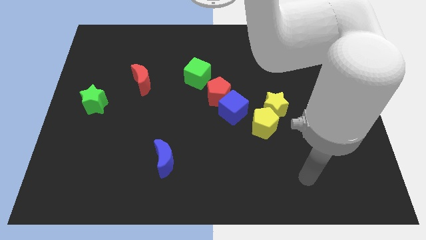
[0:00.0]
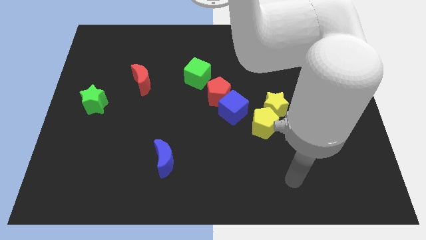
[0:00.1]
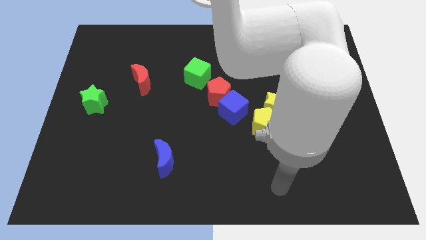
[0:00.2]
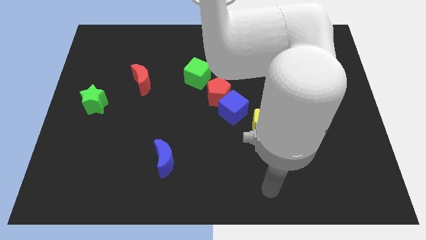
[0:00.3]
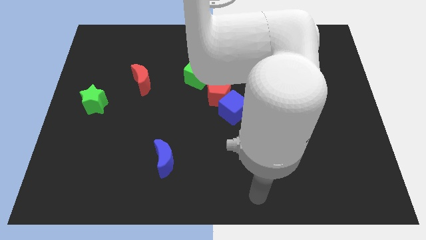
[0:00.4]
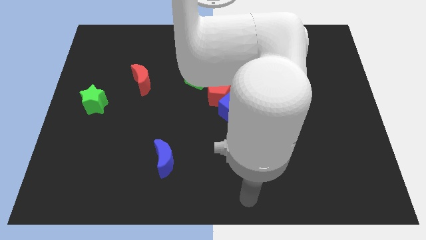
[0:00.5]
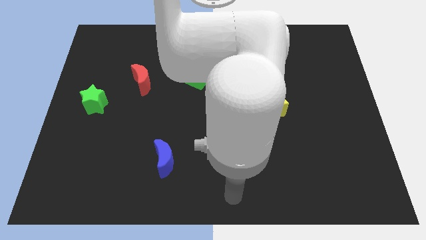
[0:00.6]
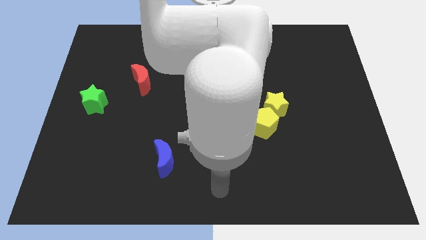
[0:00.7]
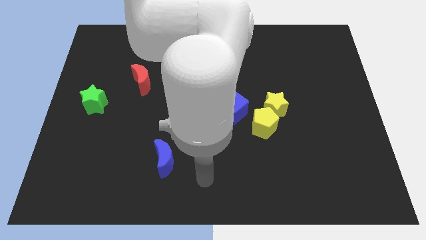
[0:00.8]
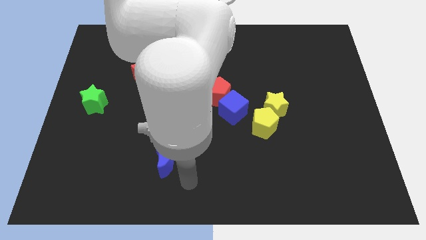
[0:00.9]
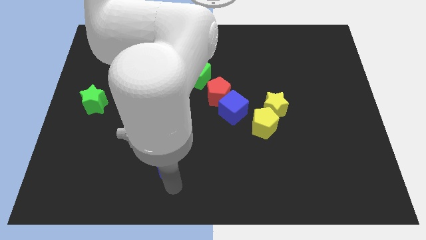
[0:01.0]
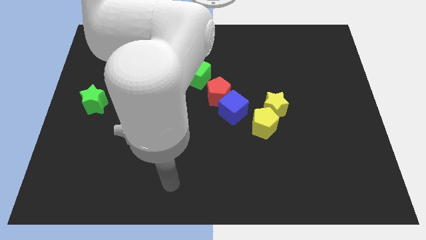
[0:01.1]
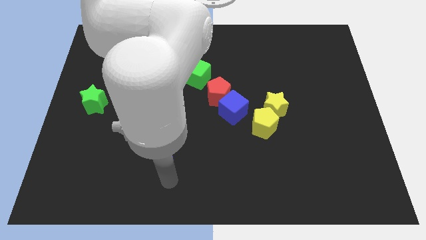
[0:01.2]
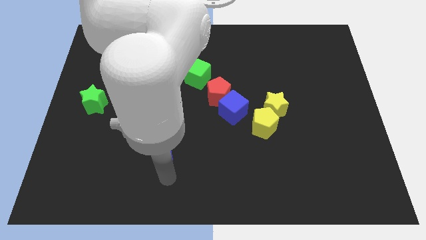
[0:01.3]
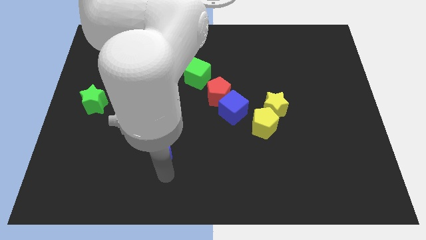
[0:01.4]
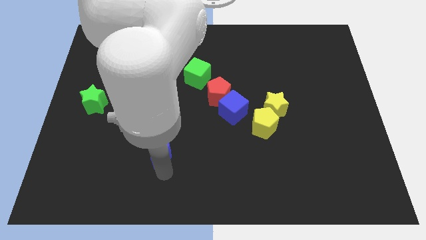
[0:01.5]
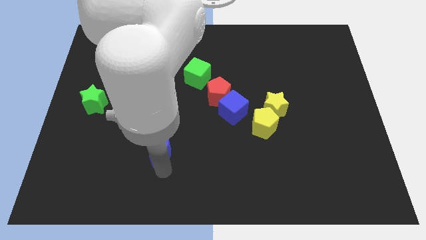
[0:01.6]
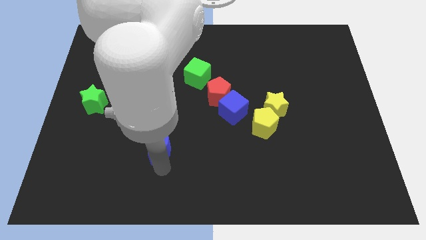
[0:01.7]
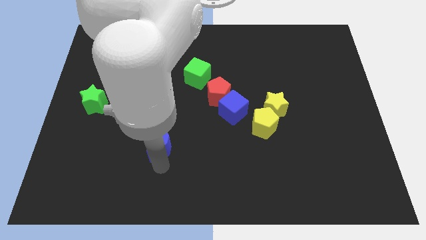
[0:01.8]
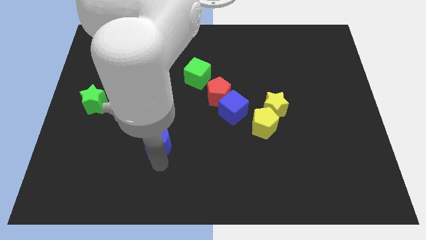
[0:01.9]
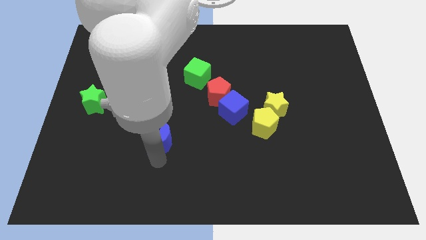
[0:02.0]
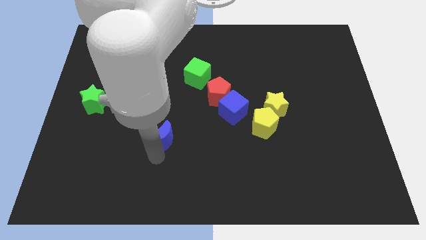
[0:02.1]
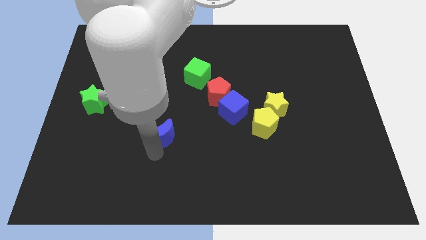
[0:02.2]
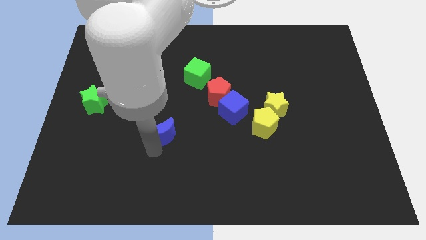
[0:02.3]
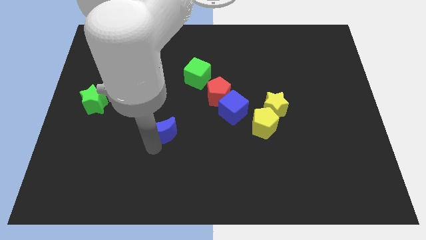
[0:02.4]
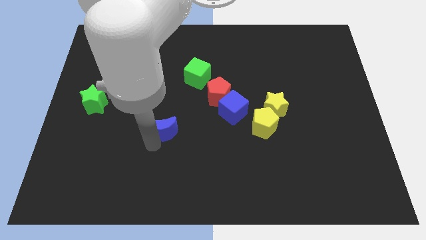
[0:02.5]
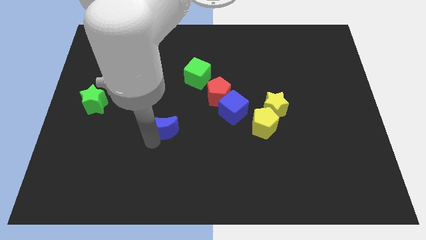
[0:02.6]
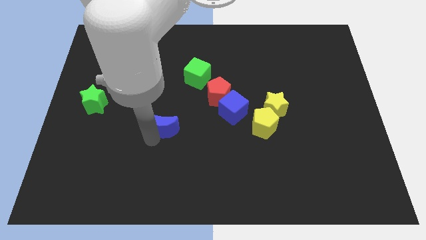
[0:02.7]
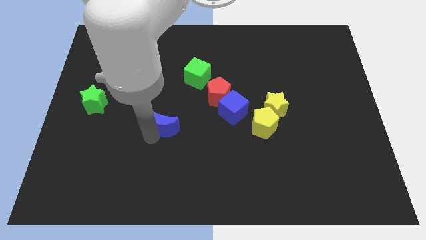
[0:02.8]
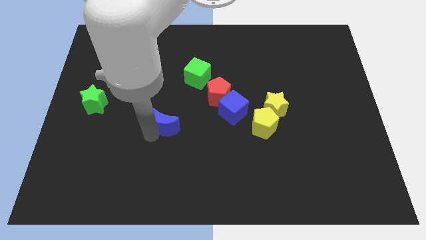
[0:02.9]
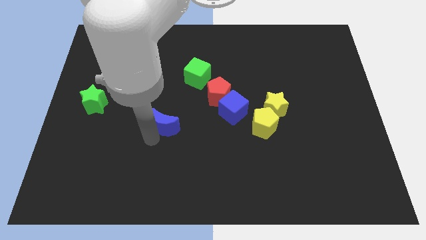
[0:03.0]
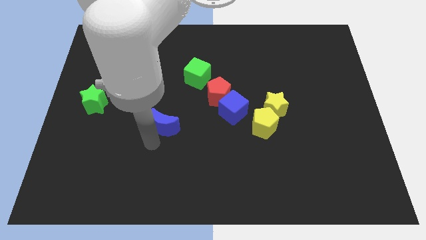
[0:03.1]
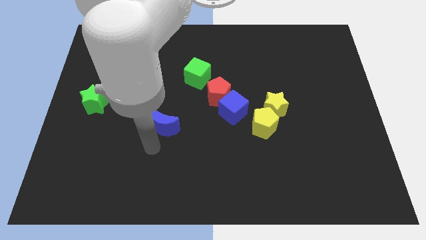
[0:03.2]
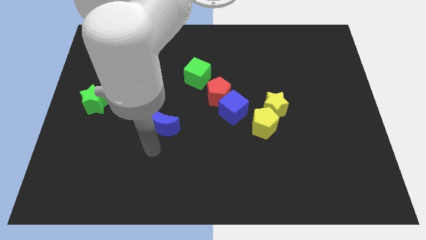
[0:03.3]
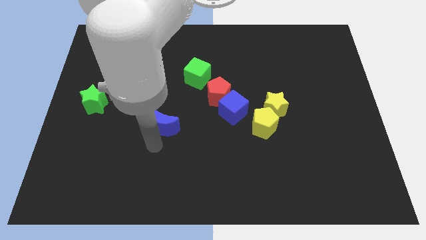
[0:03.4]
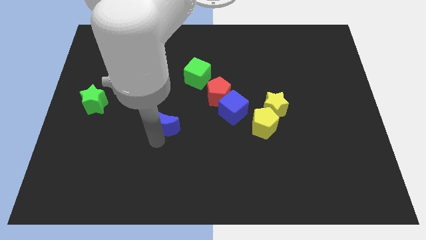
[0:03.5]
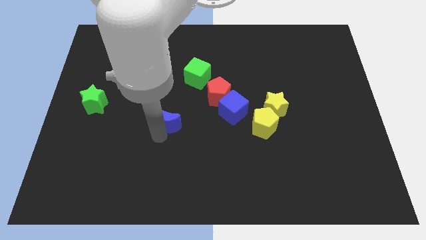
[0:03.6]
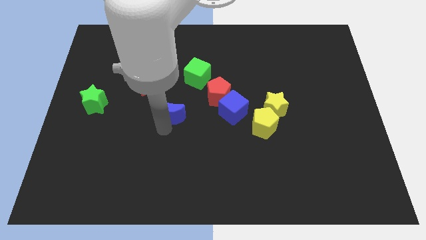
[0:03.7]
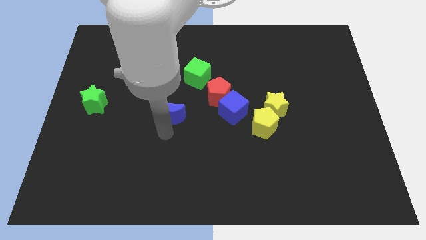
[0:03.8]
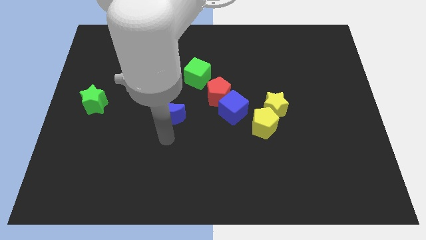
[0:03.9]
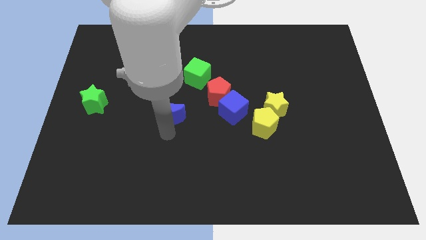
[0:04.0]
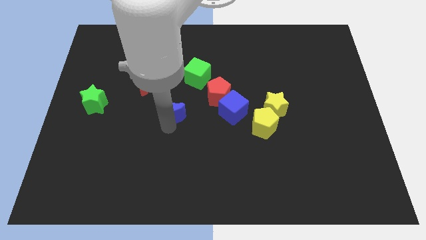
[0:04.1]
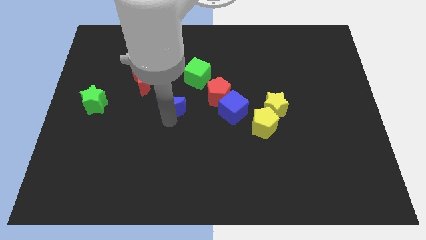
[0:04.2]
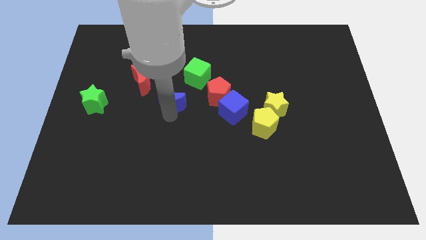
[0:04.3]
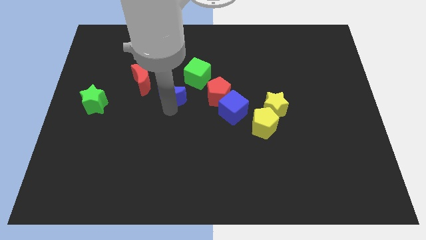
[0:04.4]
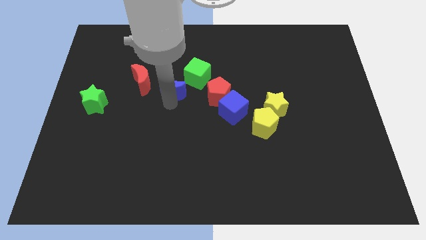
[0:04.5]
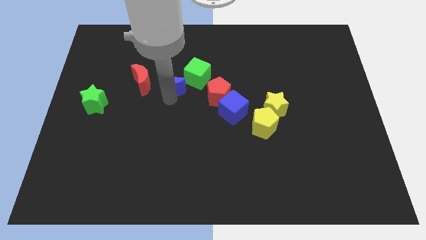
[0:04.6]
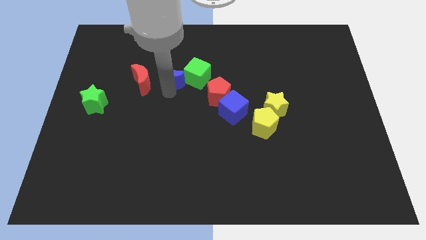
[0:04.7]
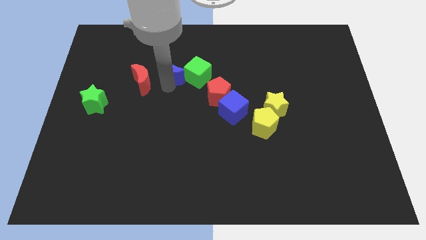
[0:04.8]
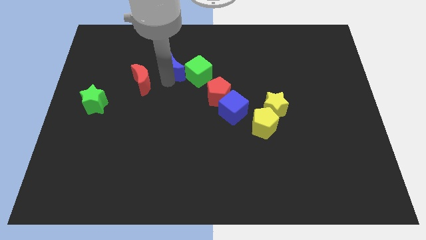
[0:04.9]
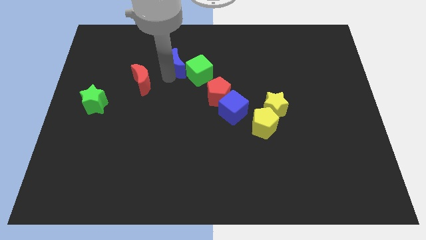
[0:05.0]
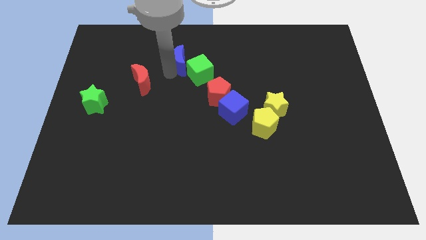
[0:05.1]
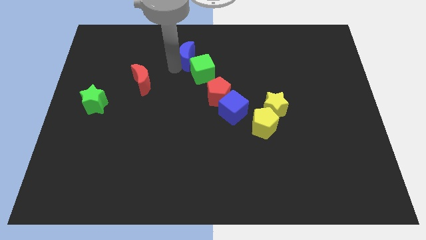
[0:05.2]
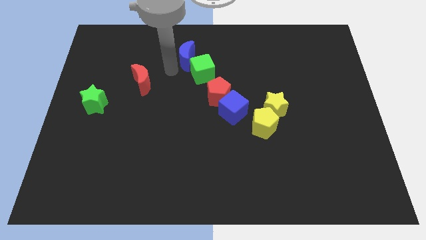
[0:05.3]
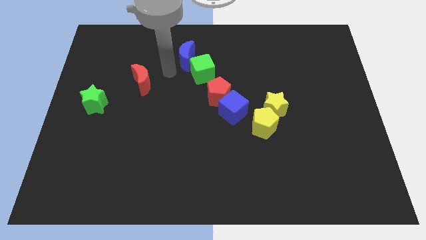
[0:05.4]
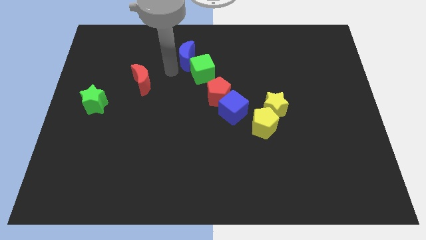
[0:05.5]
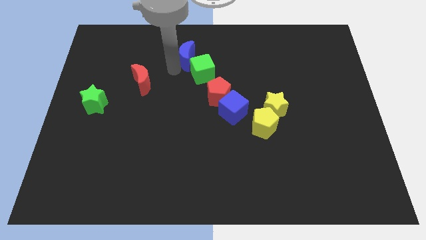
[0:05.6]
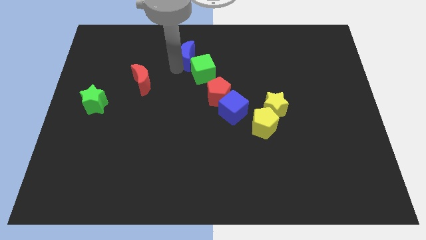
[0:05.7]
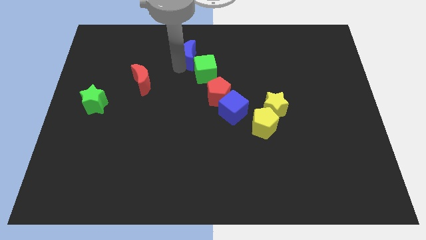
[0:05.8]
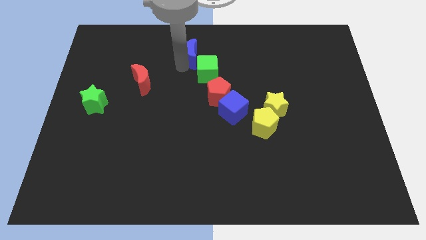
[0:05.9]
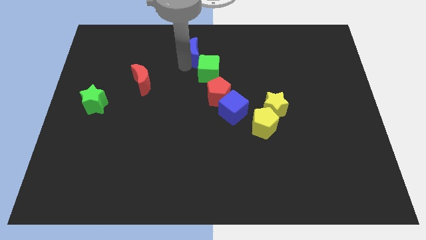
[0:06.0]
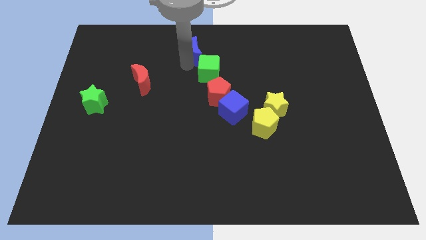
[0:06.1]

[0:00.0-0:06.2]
put the blue moon to the towards your base
